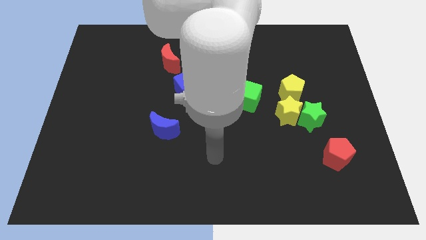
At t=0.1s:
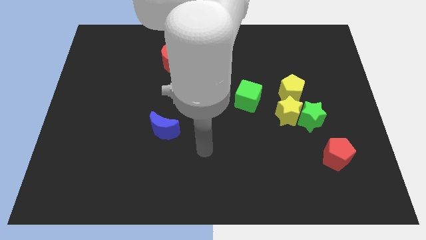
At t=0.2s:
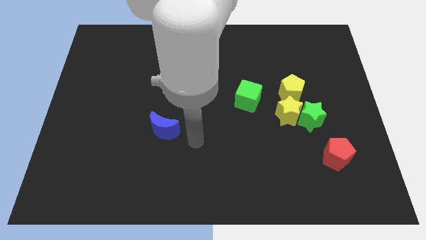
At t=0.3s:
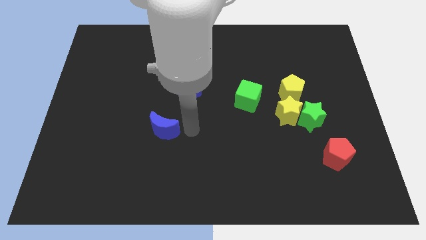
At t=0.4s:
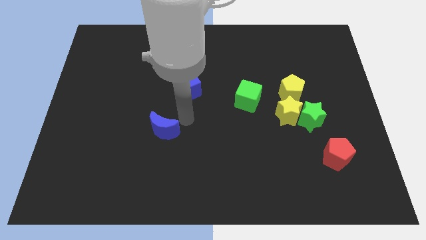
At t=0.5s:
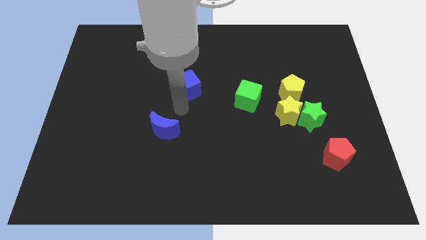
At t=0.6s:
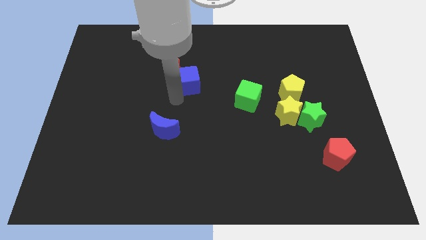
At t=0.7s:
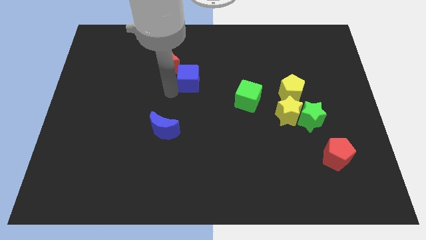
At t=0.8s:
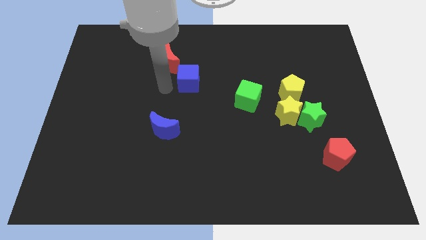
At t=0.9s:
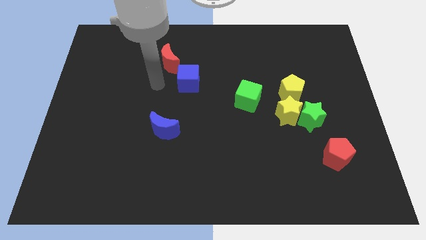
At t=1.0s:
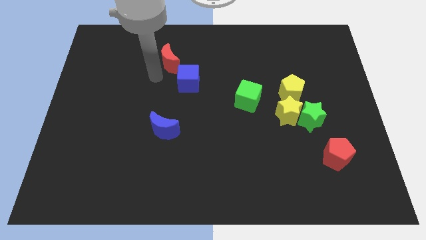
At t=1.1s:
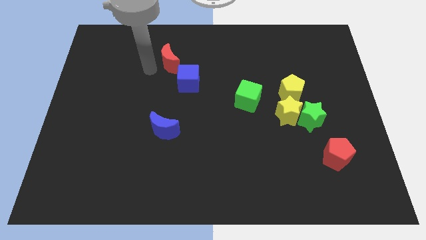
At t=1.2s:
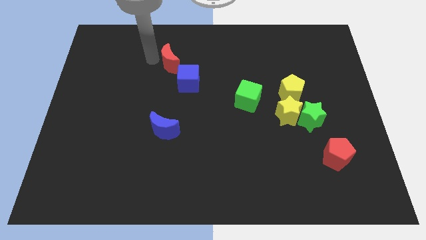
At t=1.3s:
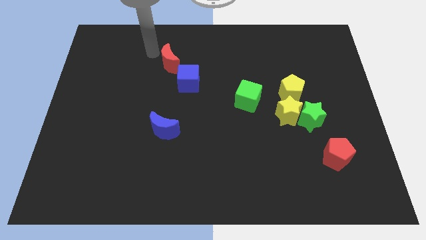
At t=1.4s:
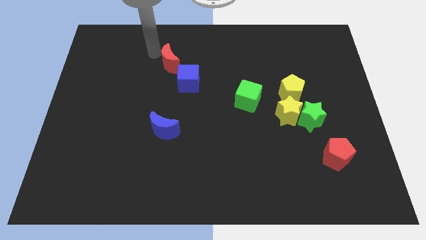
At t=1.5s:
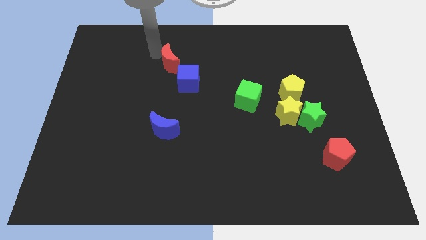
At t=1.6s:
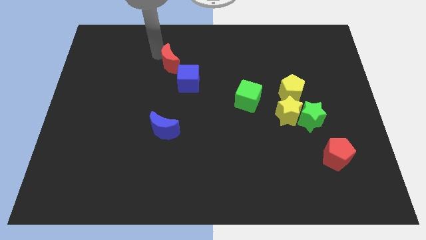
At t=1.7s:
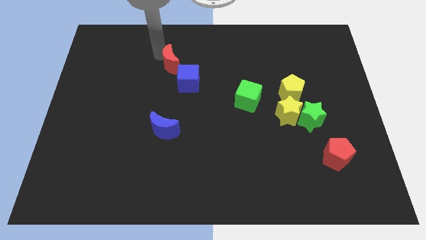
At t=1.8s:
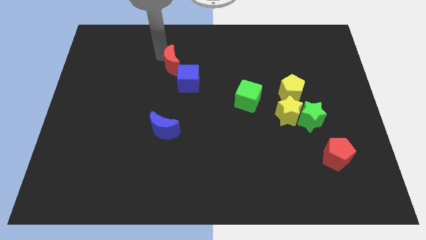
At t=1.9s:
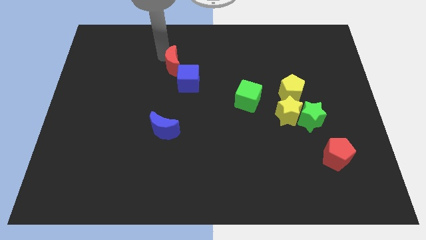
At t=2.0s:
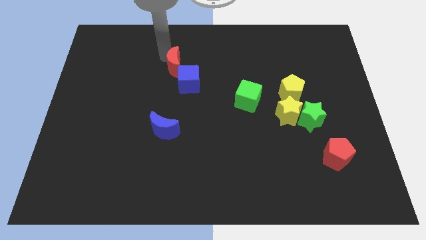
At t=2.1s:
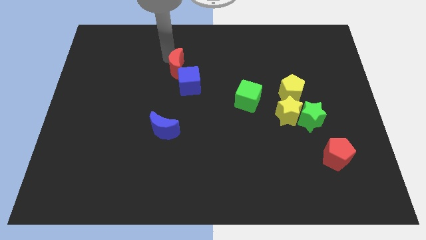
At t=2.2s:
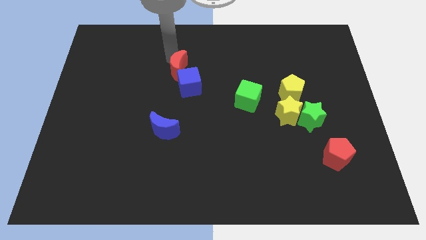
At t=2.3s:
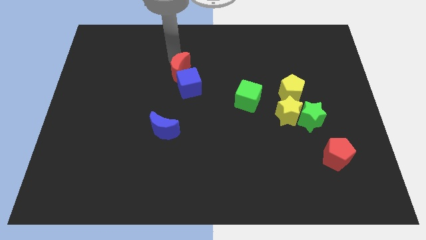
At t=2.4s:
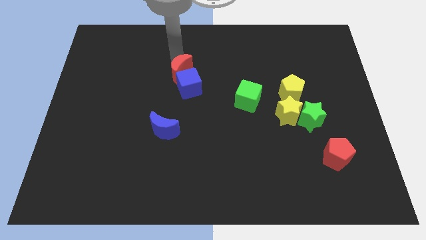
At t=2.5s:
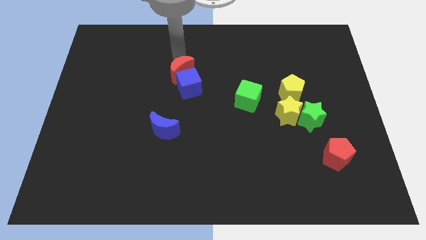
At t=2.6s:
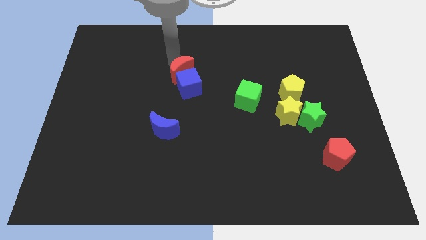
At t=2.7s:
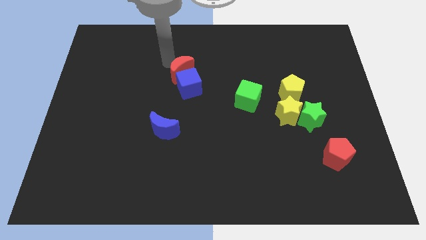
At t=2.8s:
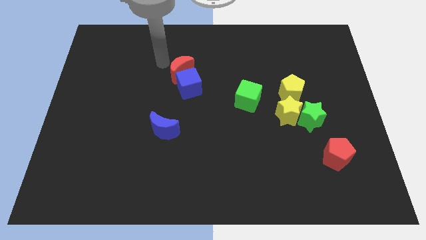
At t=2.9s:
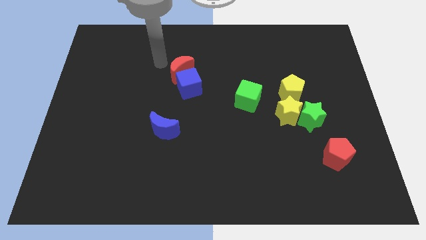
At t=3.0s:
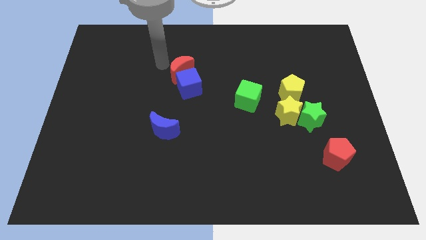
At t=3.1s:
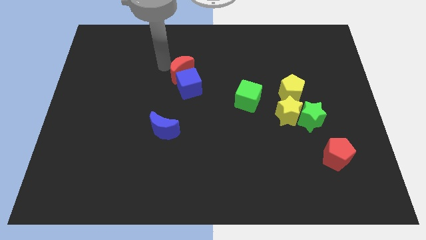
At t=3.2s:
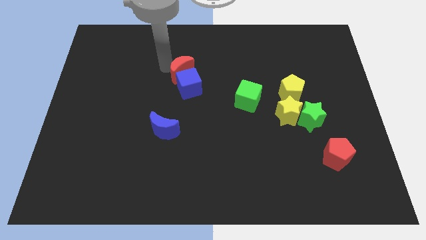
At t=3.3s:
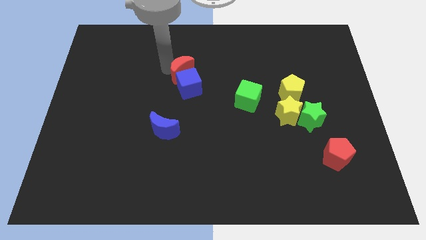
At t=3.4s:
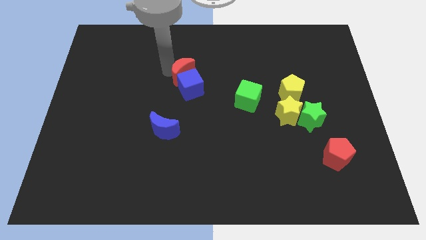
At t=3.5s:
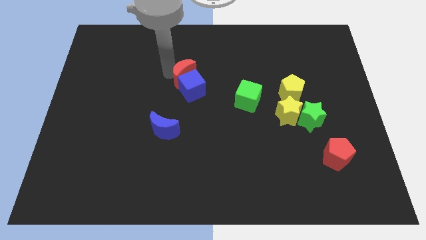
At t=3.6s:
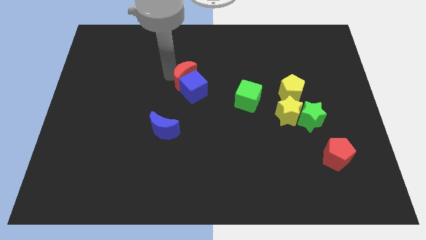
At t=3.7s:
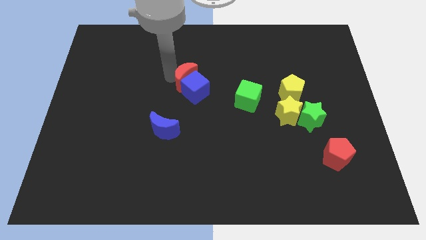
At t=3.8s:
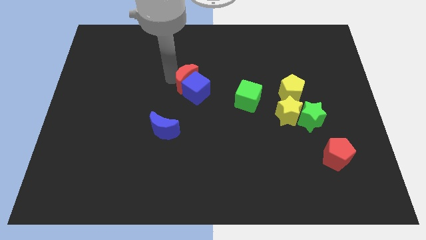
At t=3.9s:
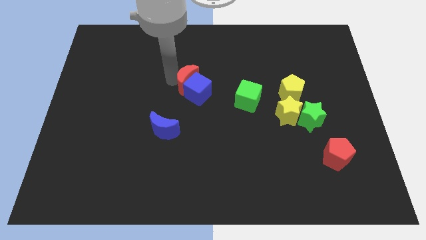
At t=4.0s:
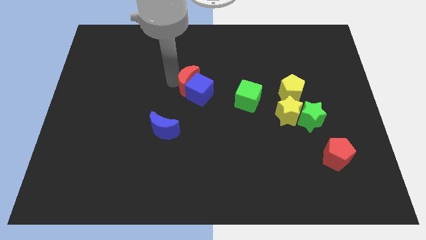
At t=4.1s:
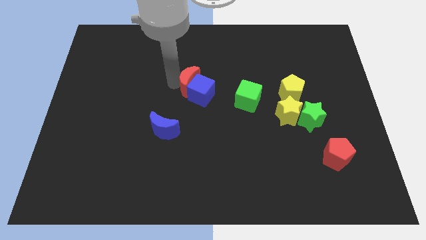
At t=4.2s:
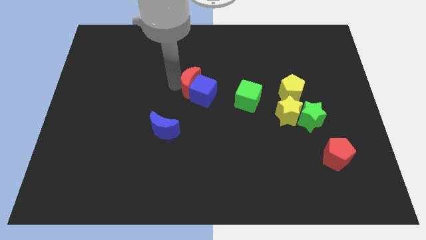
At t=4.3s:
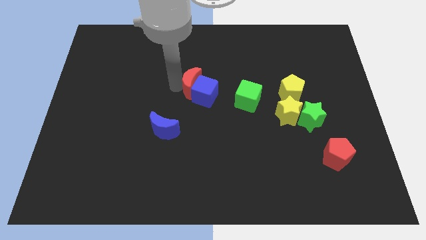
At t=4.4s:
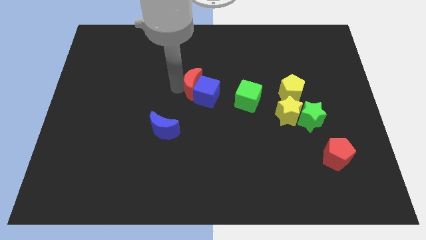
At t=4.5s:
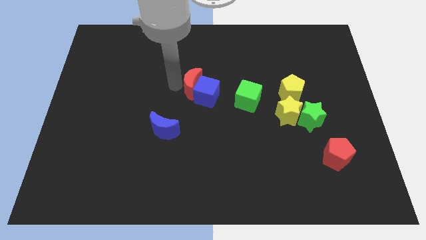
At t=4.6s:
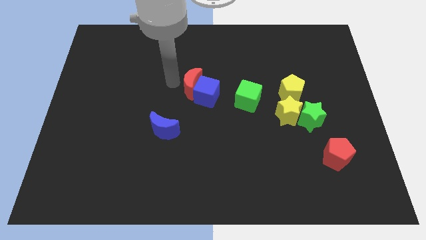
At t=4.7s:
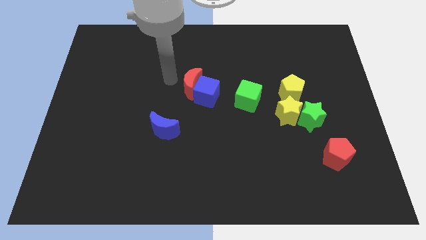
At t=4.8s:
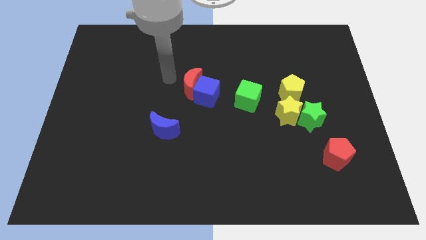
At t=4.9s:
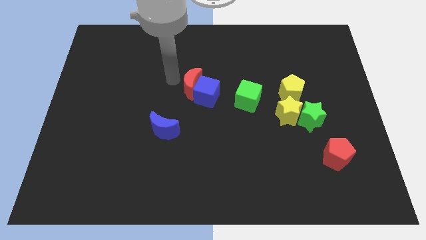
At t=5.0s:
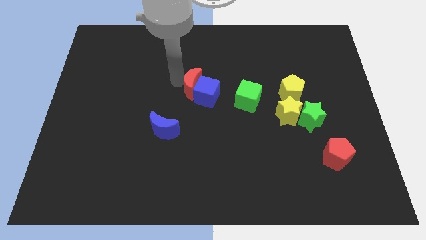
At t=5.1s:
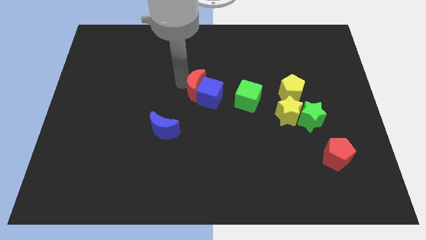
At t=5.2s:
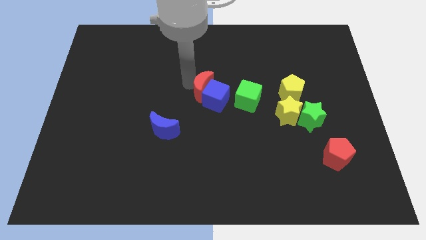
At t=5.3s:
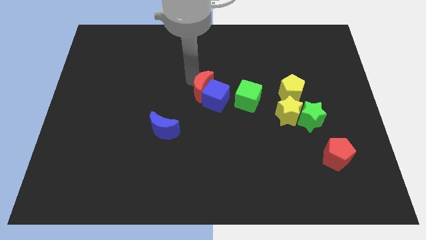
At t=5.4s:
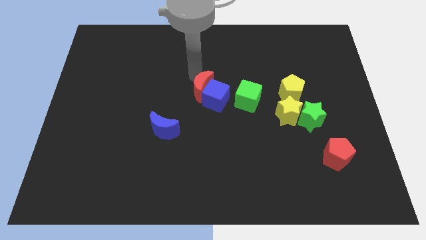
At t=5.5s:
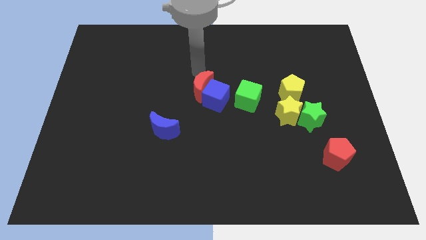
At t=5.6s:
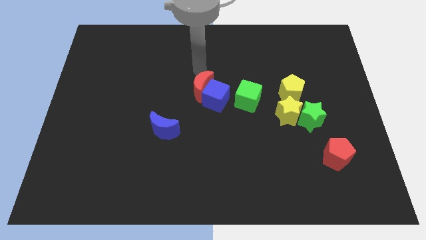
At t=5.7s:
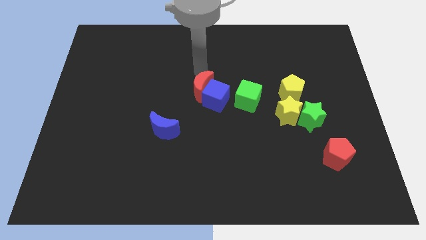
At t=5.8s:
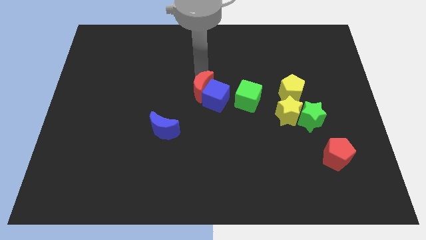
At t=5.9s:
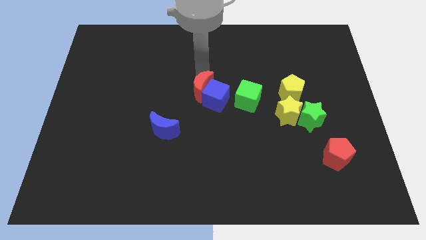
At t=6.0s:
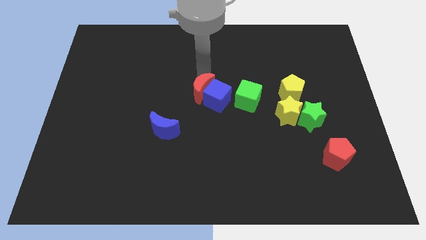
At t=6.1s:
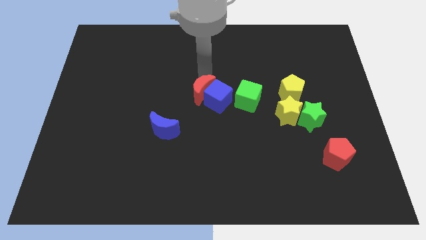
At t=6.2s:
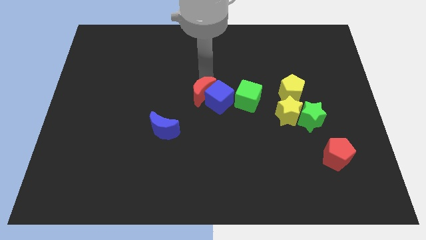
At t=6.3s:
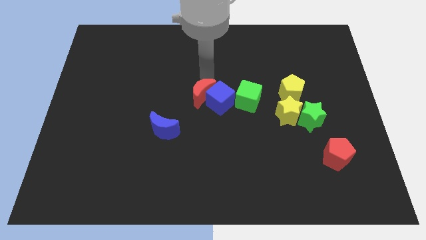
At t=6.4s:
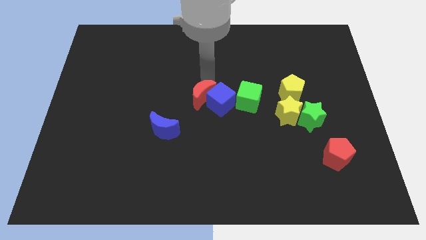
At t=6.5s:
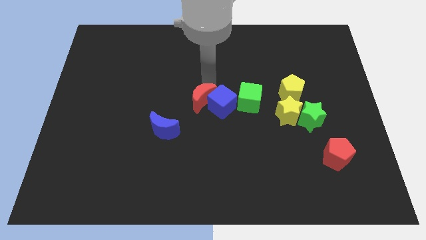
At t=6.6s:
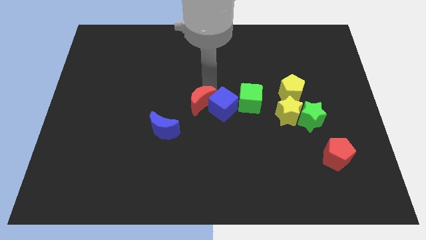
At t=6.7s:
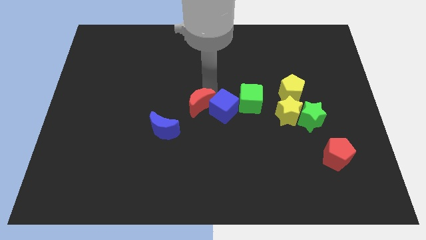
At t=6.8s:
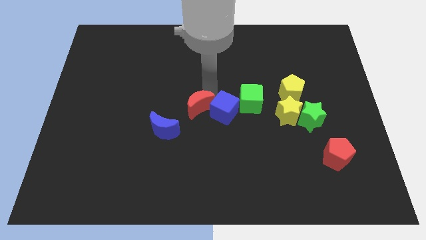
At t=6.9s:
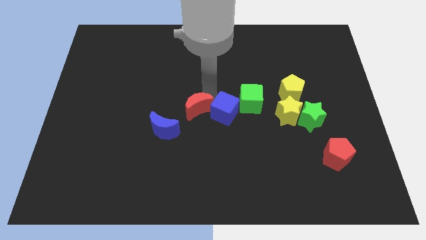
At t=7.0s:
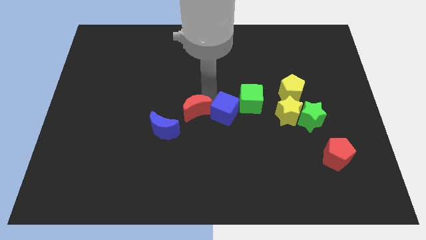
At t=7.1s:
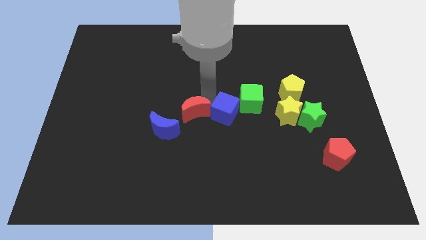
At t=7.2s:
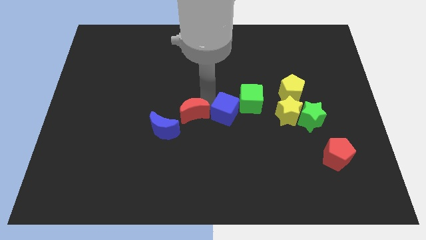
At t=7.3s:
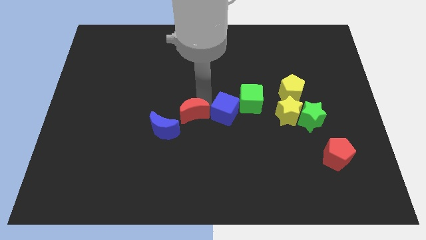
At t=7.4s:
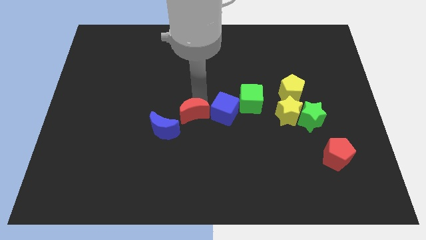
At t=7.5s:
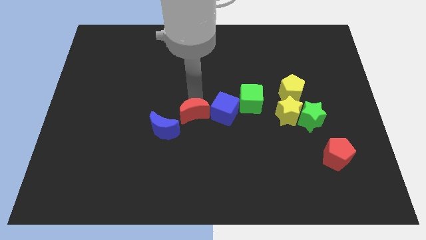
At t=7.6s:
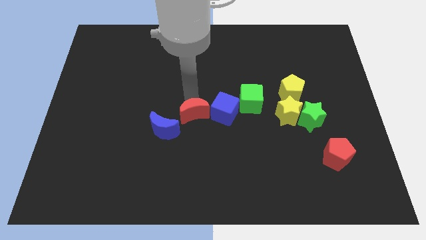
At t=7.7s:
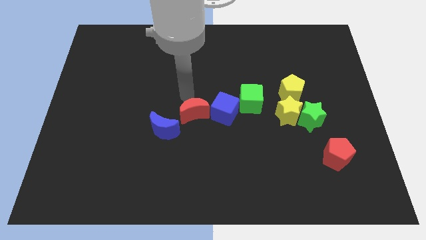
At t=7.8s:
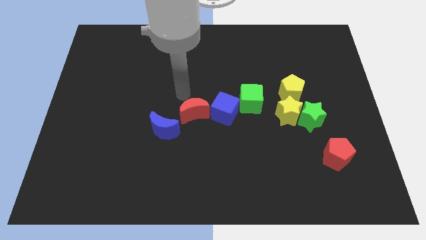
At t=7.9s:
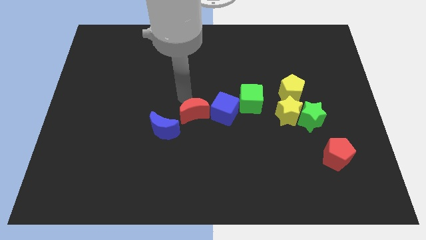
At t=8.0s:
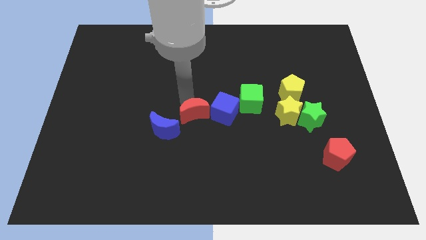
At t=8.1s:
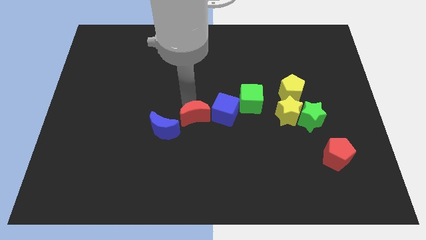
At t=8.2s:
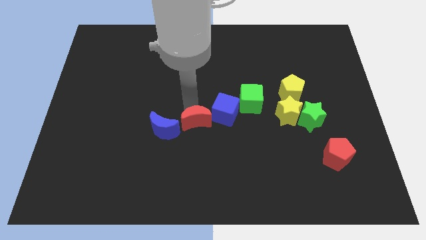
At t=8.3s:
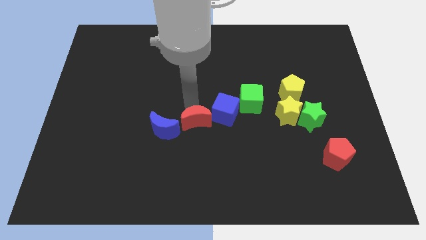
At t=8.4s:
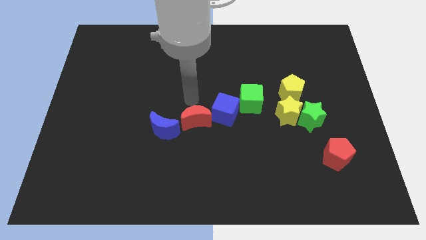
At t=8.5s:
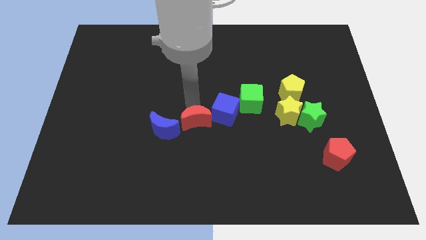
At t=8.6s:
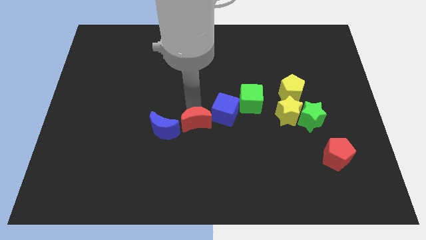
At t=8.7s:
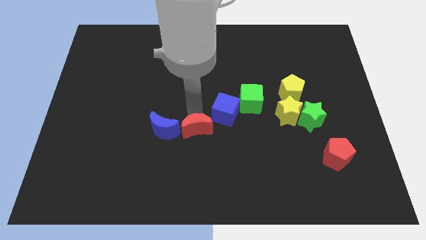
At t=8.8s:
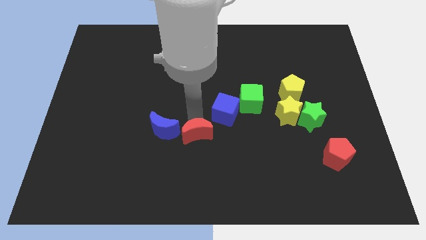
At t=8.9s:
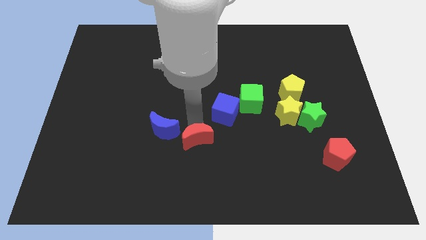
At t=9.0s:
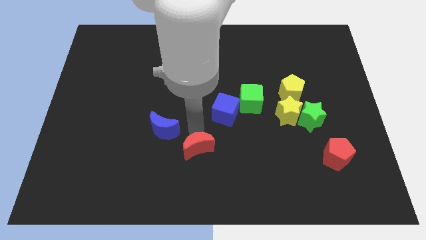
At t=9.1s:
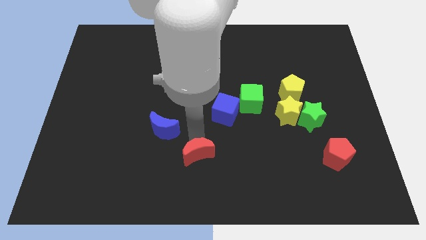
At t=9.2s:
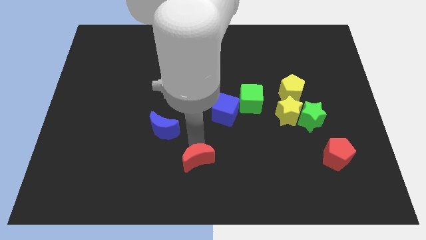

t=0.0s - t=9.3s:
slide the red moon to the bottom
